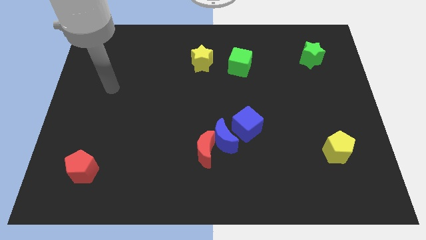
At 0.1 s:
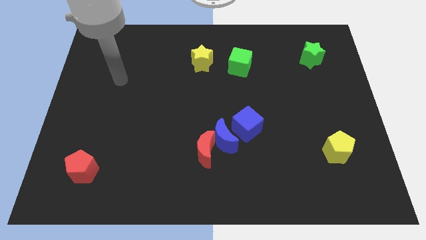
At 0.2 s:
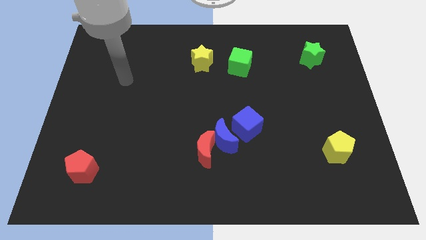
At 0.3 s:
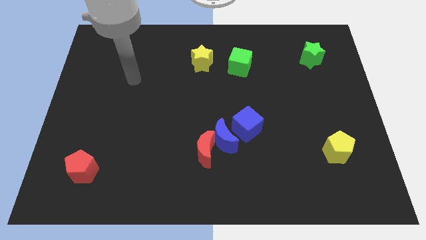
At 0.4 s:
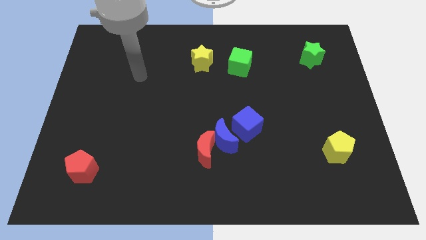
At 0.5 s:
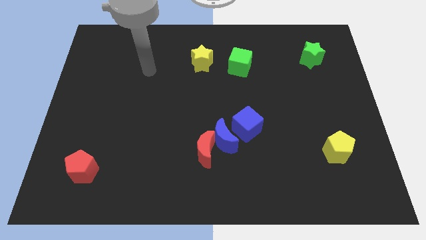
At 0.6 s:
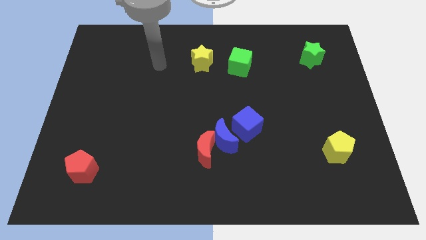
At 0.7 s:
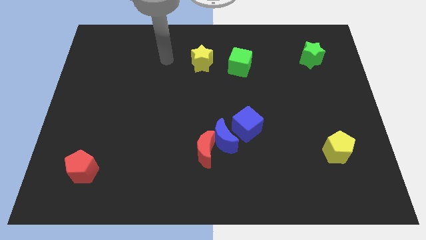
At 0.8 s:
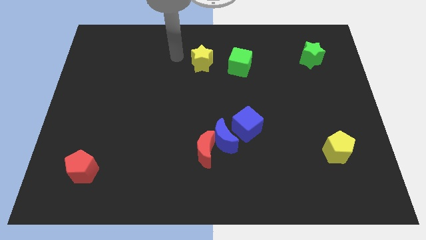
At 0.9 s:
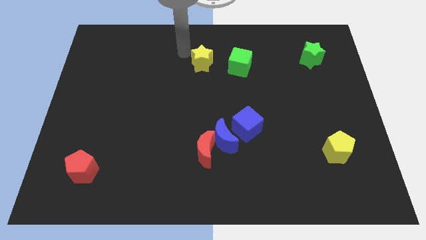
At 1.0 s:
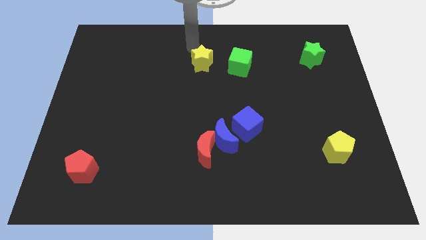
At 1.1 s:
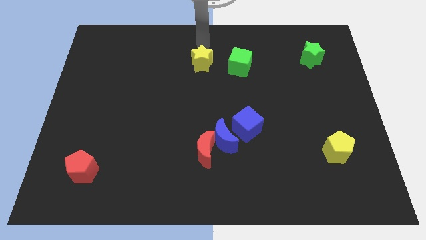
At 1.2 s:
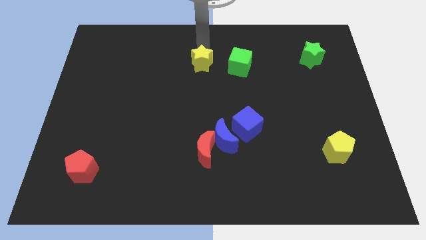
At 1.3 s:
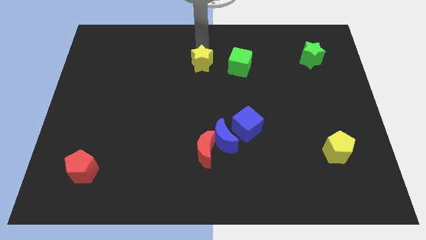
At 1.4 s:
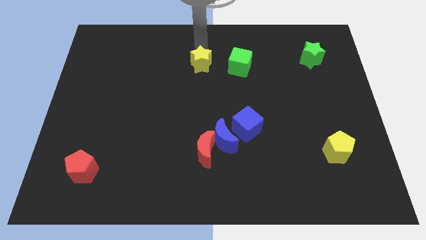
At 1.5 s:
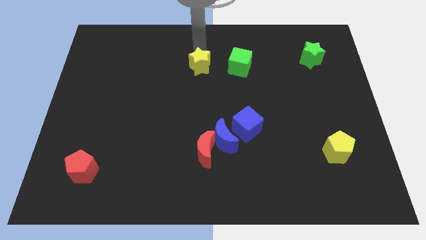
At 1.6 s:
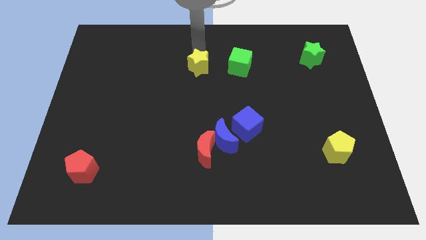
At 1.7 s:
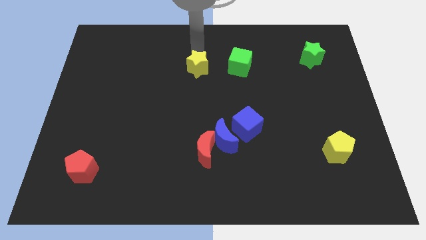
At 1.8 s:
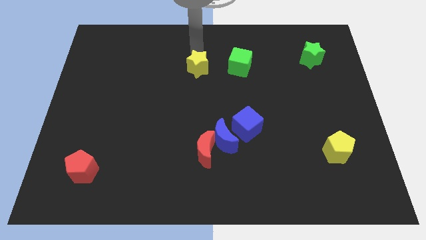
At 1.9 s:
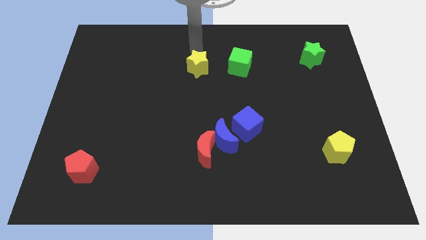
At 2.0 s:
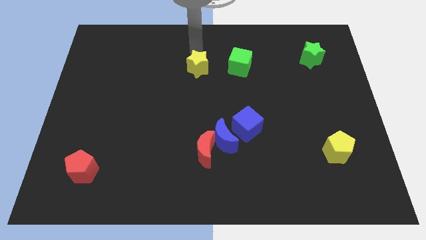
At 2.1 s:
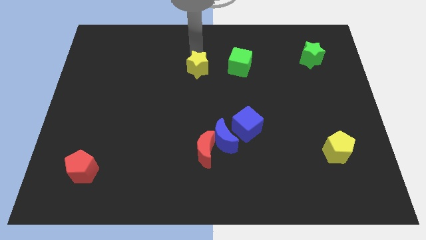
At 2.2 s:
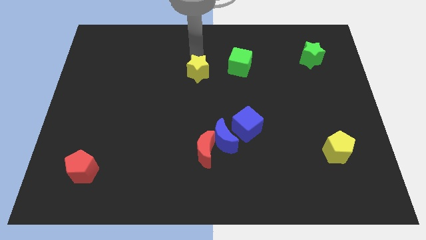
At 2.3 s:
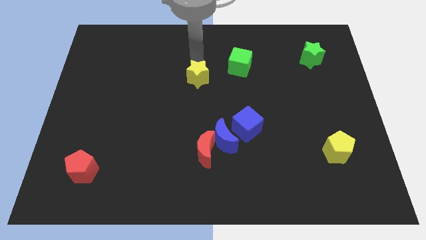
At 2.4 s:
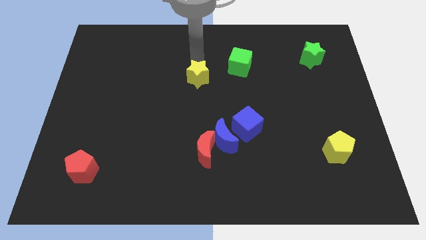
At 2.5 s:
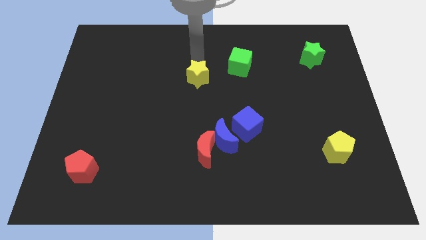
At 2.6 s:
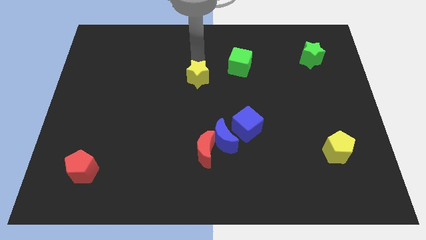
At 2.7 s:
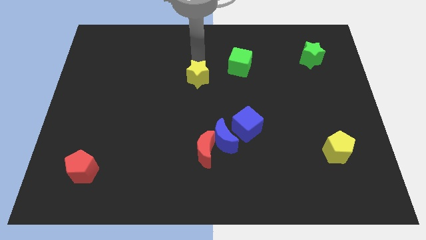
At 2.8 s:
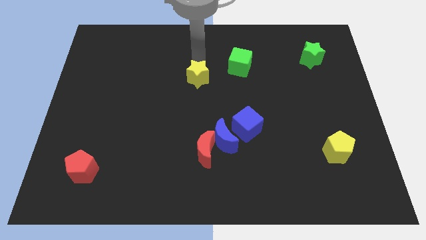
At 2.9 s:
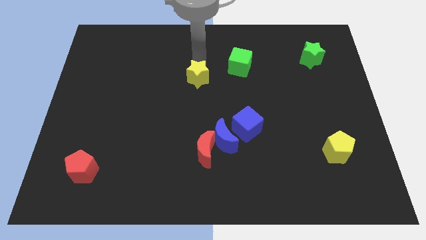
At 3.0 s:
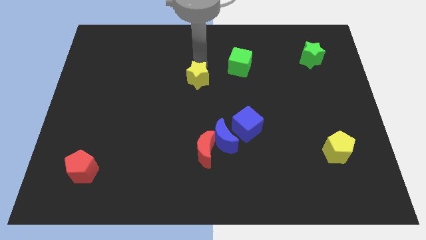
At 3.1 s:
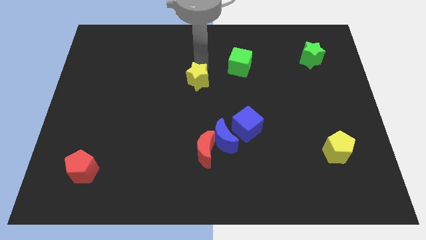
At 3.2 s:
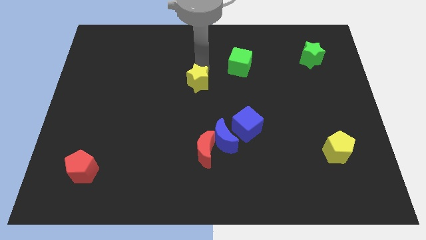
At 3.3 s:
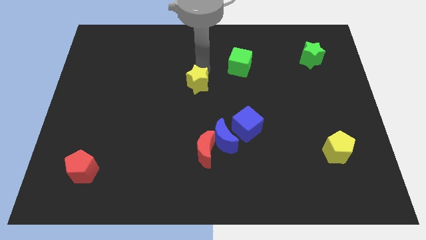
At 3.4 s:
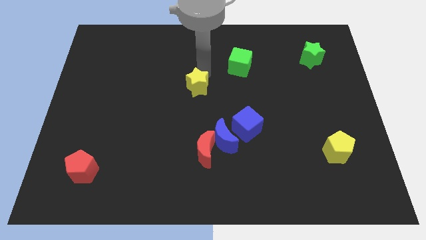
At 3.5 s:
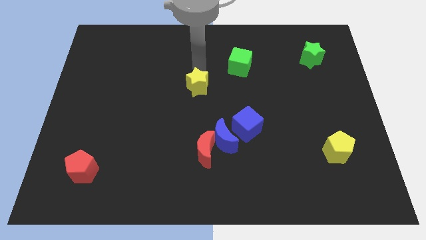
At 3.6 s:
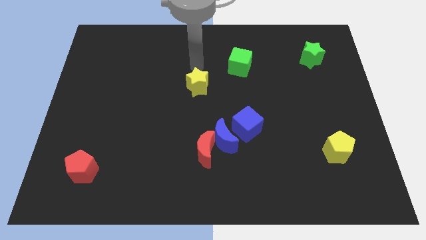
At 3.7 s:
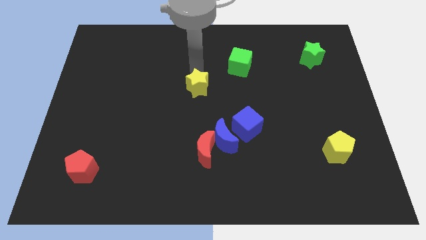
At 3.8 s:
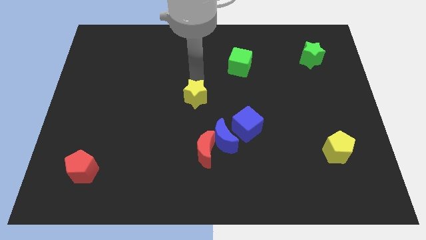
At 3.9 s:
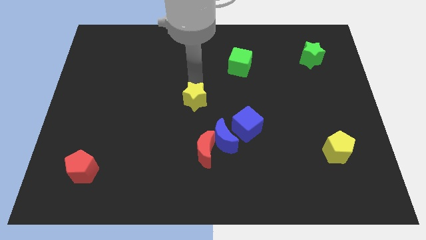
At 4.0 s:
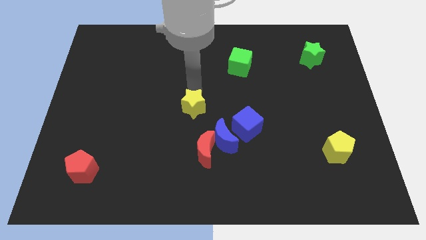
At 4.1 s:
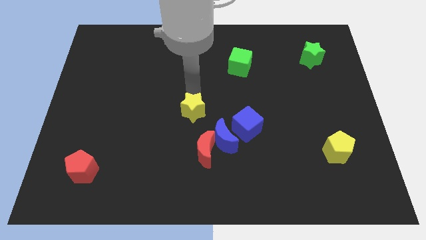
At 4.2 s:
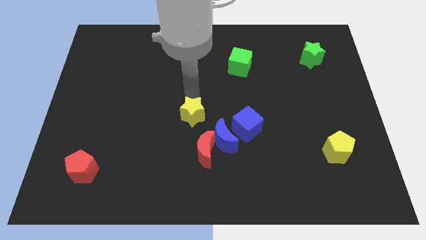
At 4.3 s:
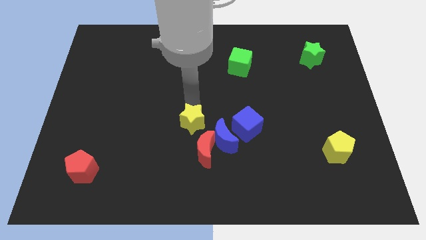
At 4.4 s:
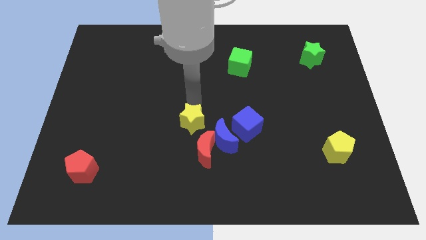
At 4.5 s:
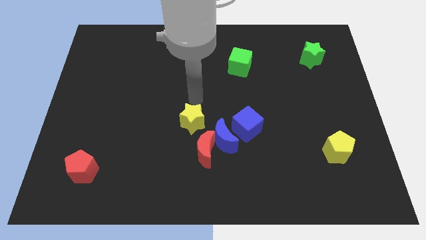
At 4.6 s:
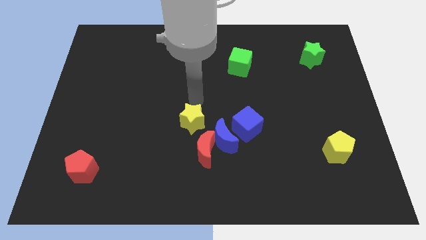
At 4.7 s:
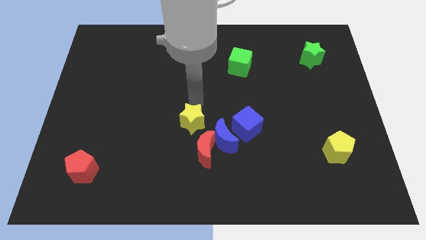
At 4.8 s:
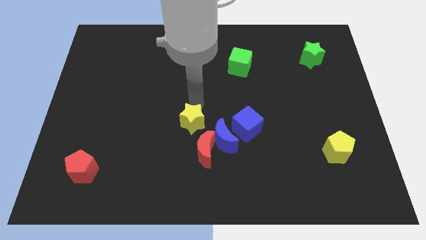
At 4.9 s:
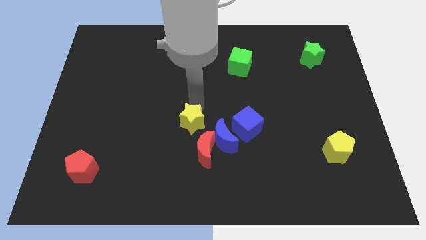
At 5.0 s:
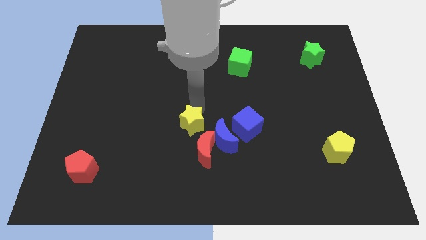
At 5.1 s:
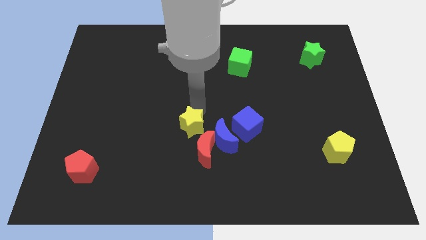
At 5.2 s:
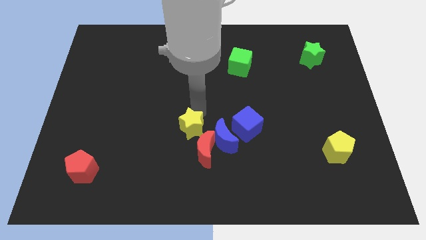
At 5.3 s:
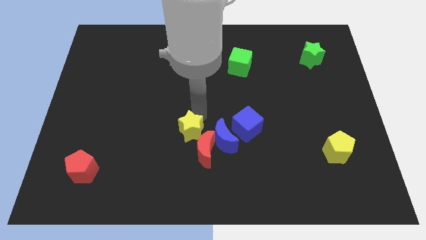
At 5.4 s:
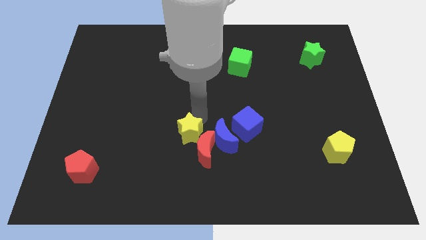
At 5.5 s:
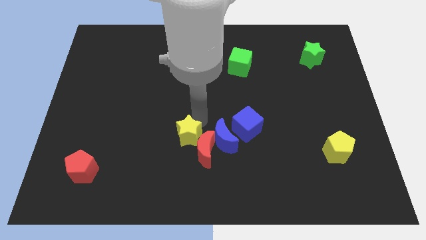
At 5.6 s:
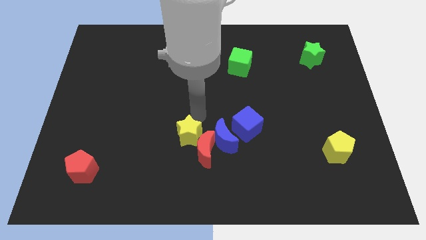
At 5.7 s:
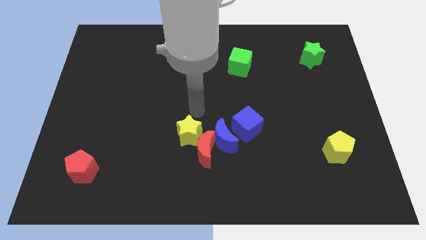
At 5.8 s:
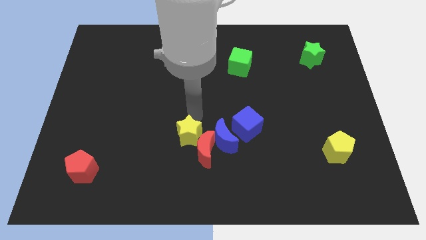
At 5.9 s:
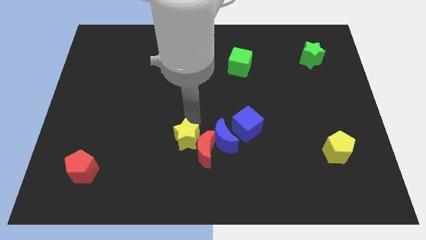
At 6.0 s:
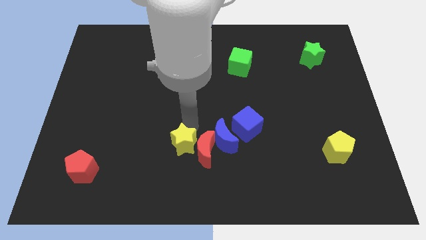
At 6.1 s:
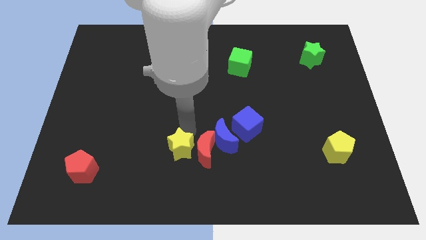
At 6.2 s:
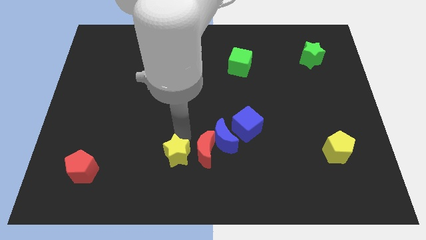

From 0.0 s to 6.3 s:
slide the yellow star to the bottom left of the blue moon

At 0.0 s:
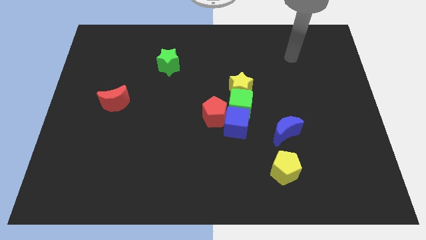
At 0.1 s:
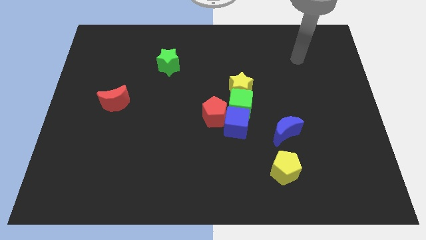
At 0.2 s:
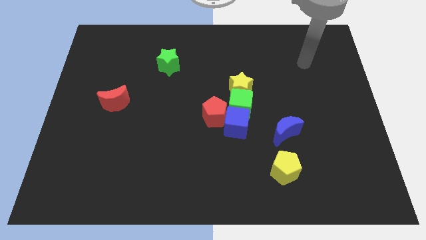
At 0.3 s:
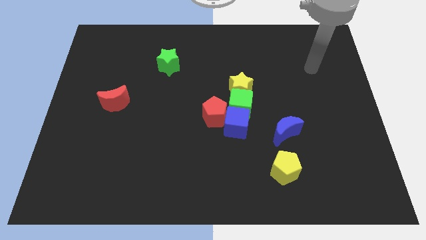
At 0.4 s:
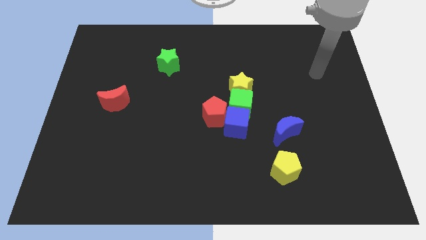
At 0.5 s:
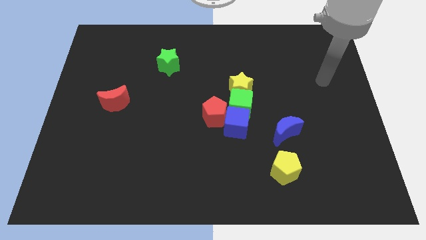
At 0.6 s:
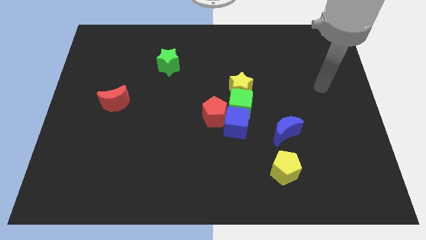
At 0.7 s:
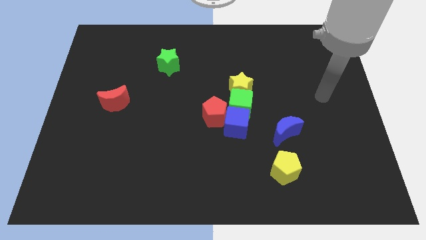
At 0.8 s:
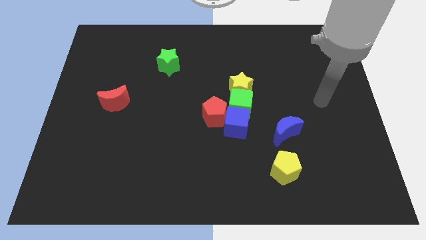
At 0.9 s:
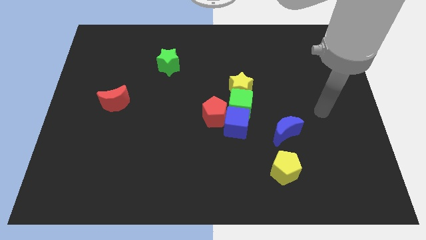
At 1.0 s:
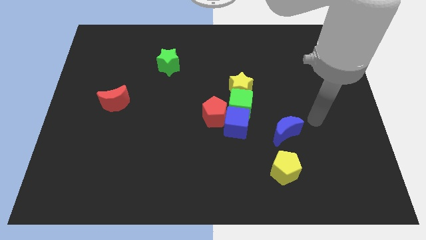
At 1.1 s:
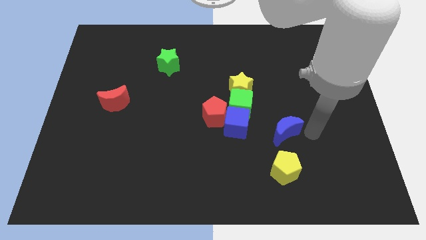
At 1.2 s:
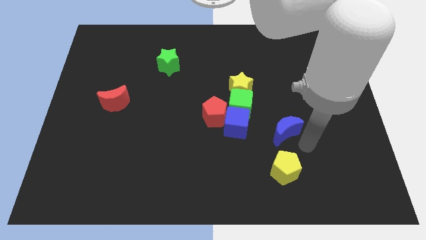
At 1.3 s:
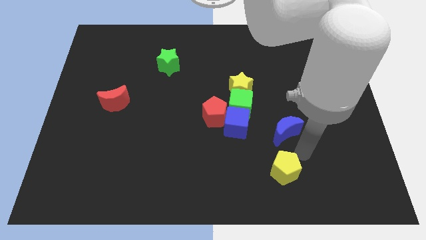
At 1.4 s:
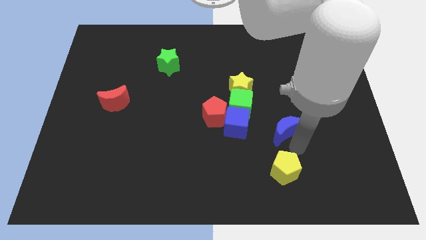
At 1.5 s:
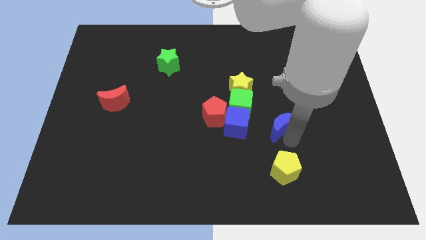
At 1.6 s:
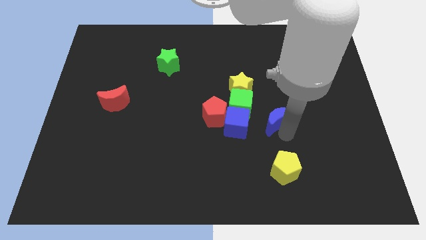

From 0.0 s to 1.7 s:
push the blue moon to the bottom right side of the yellow star
